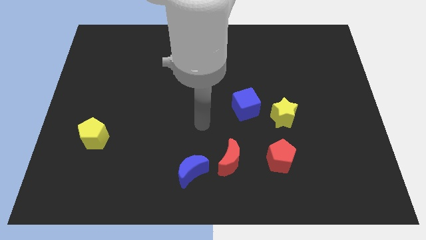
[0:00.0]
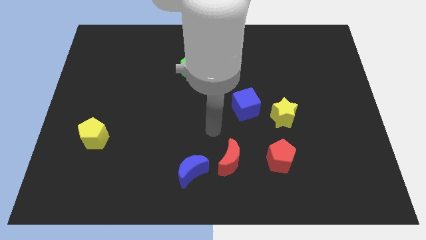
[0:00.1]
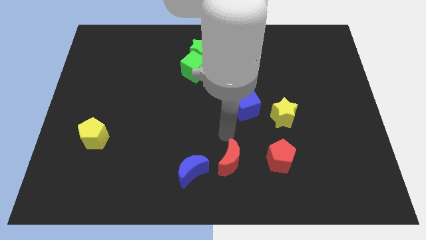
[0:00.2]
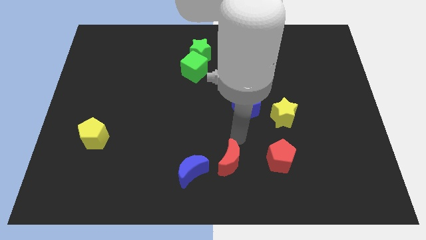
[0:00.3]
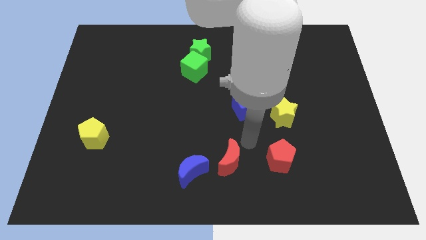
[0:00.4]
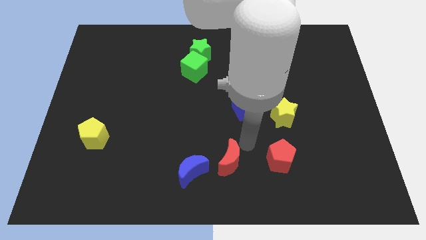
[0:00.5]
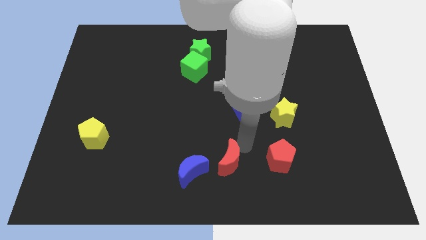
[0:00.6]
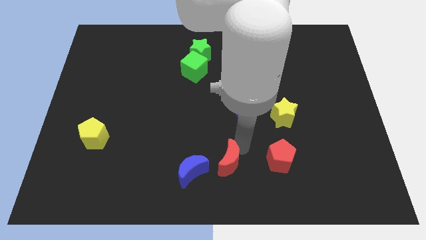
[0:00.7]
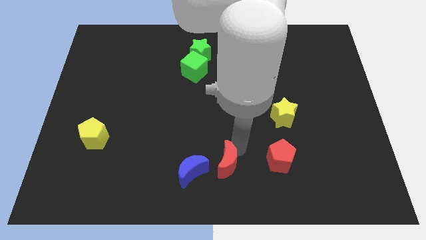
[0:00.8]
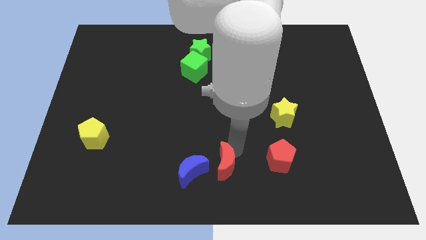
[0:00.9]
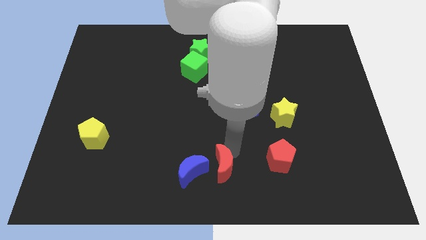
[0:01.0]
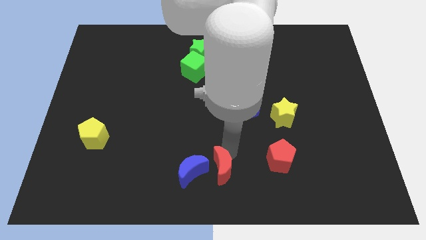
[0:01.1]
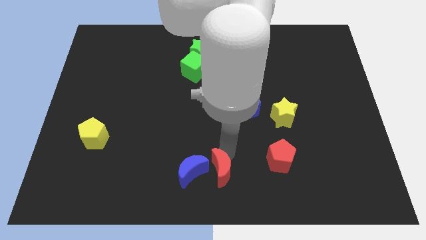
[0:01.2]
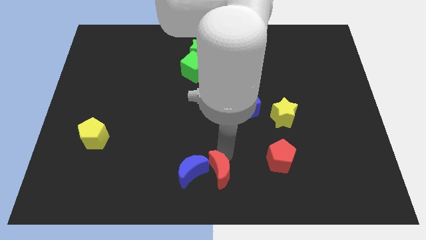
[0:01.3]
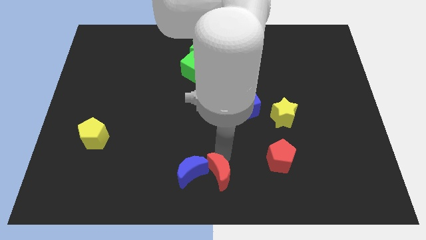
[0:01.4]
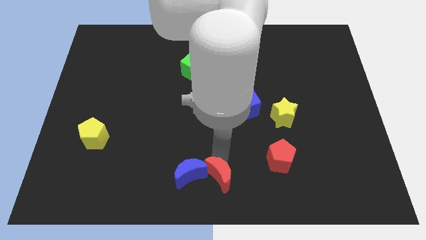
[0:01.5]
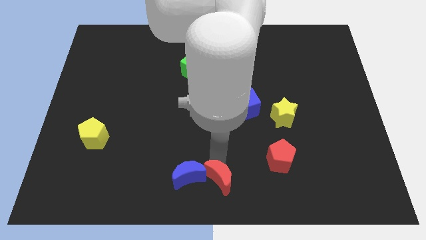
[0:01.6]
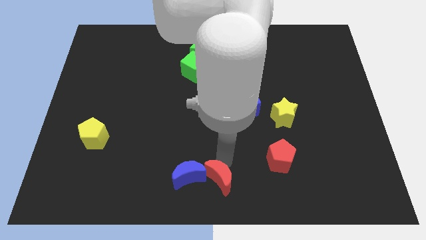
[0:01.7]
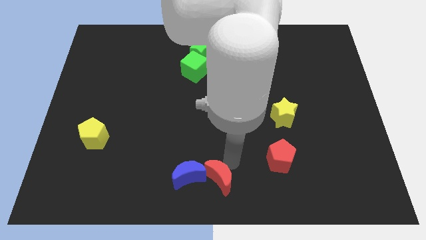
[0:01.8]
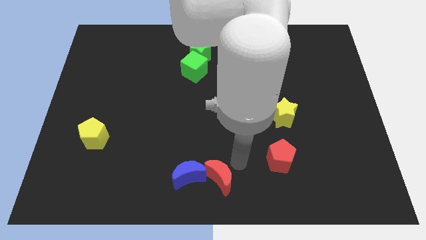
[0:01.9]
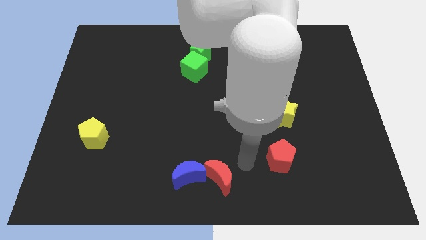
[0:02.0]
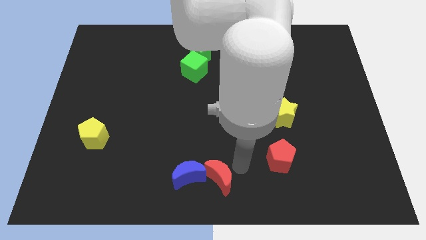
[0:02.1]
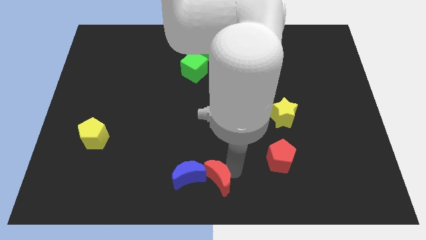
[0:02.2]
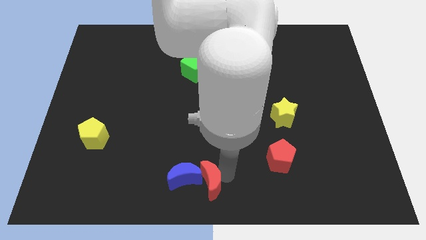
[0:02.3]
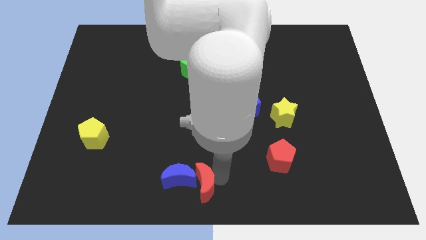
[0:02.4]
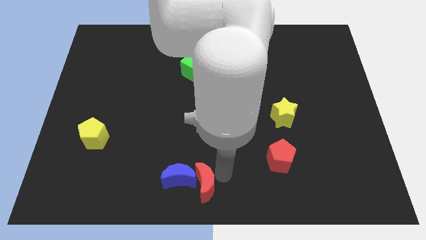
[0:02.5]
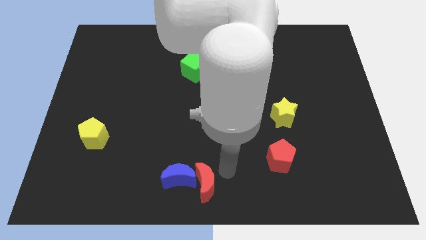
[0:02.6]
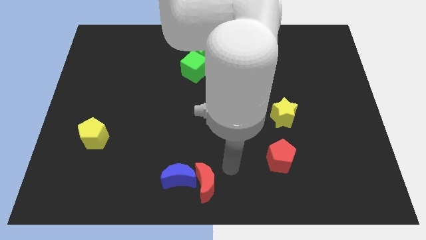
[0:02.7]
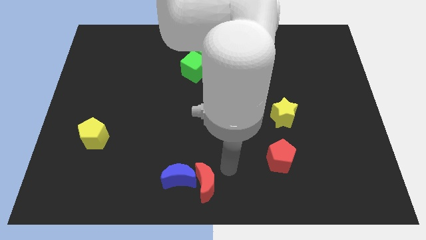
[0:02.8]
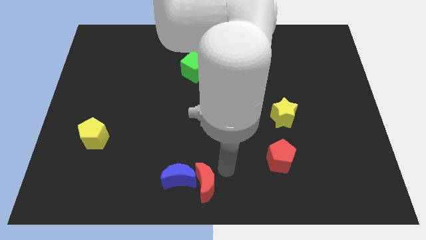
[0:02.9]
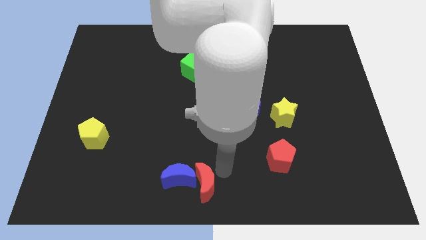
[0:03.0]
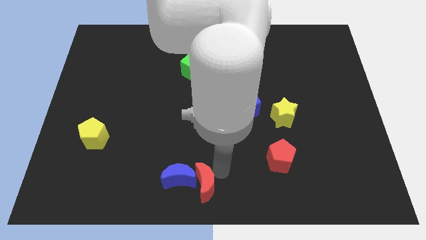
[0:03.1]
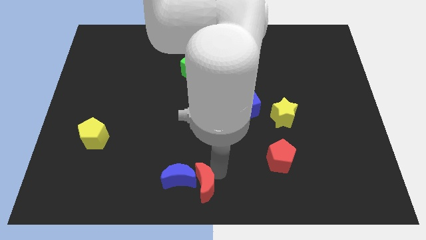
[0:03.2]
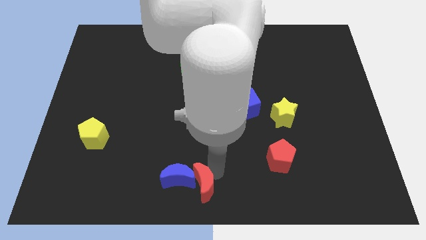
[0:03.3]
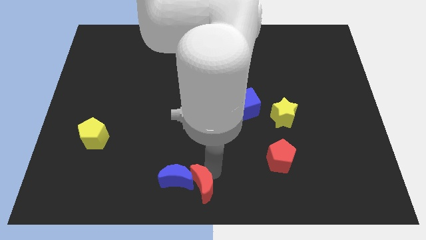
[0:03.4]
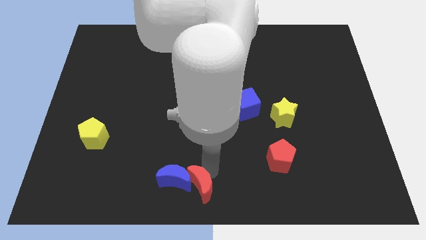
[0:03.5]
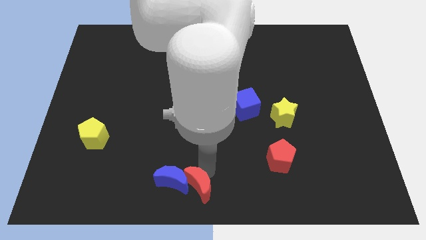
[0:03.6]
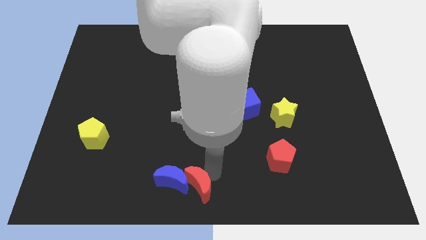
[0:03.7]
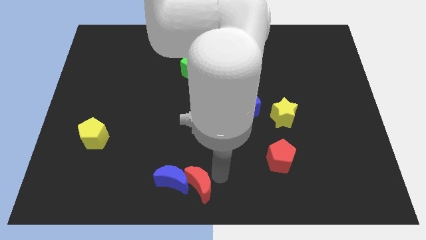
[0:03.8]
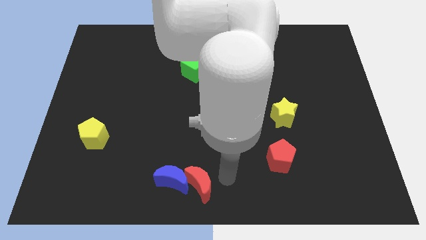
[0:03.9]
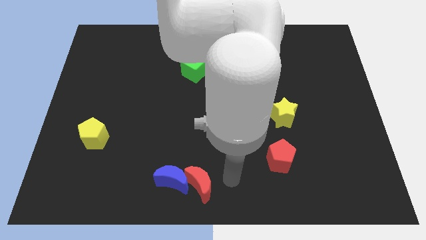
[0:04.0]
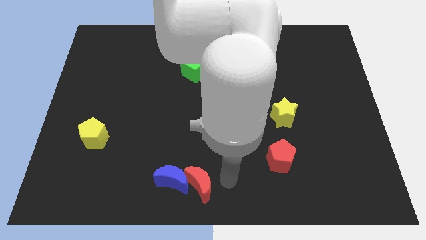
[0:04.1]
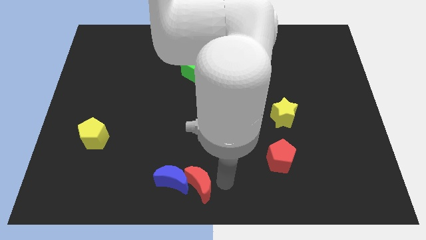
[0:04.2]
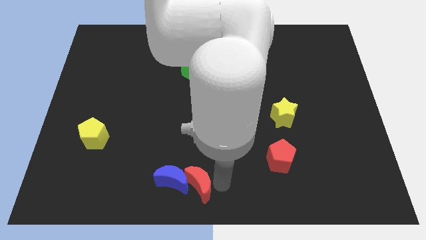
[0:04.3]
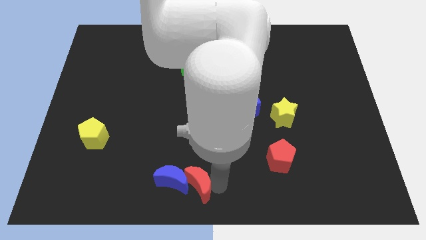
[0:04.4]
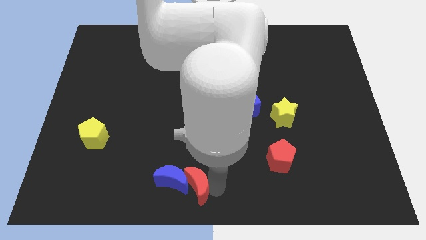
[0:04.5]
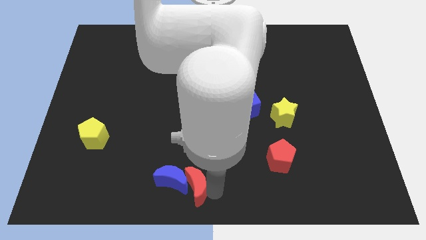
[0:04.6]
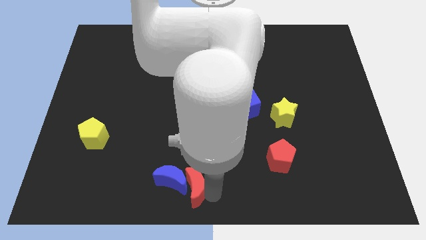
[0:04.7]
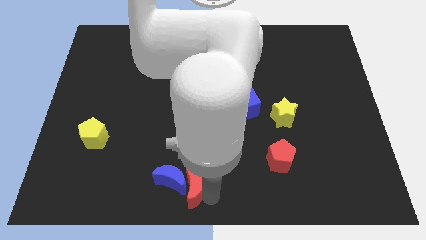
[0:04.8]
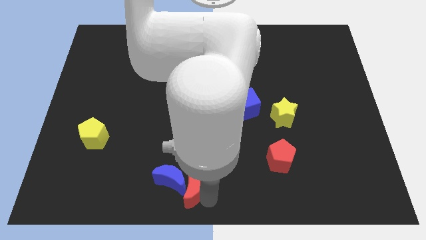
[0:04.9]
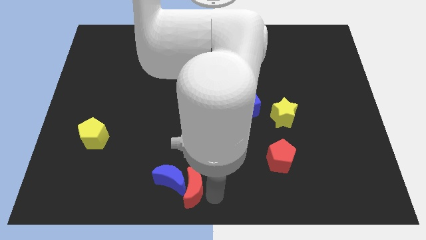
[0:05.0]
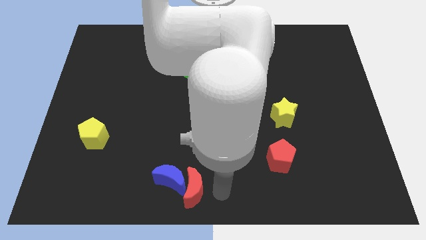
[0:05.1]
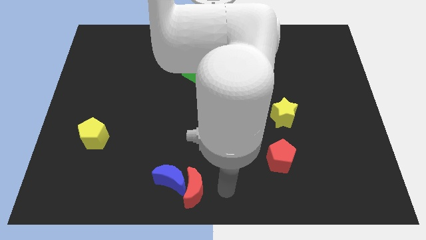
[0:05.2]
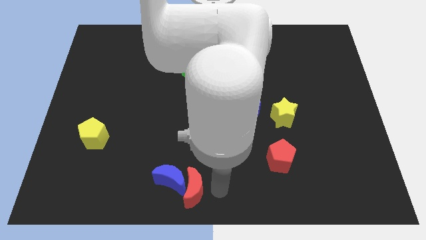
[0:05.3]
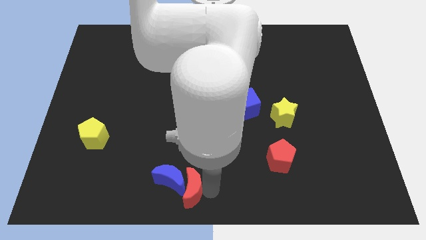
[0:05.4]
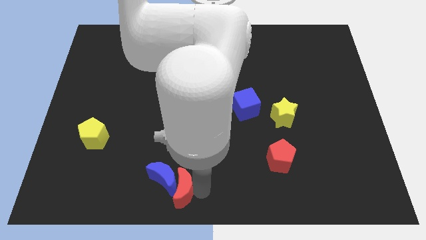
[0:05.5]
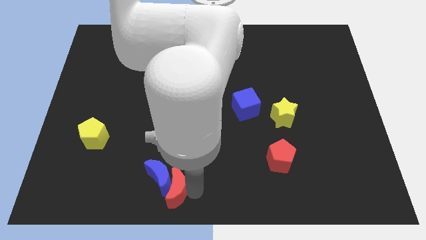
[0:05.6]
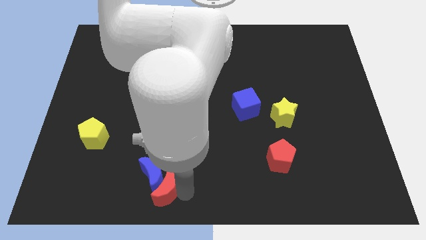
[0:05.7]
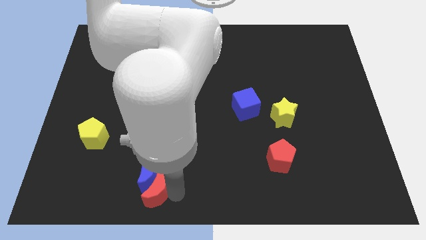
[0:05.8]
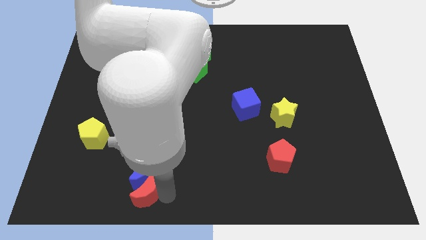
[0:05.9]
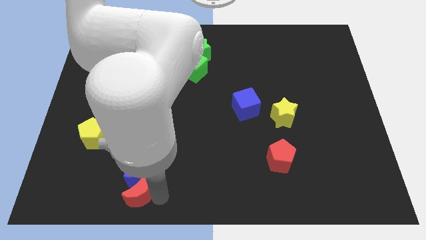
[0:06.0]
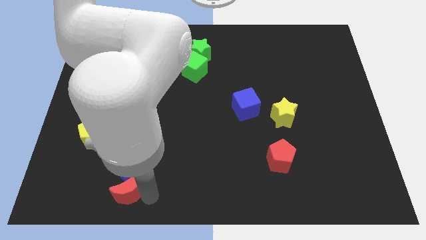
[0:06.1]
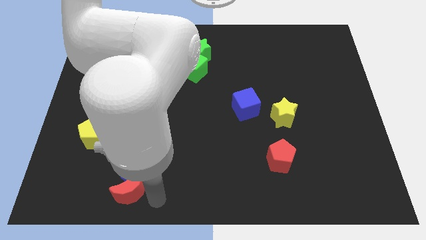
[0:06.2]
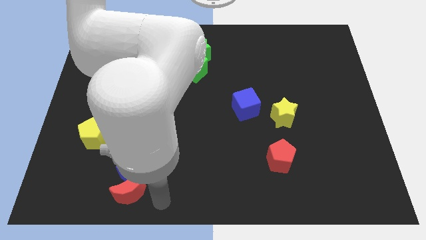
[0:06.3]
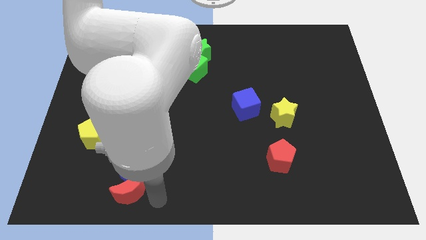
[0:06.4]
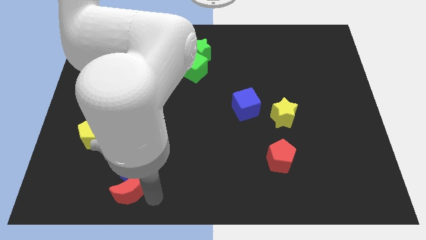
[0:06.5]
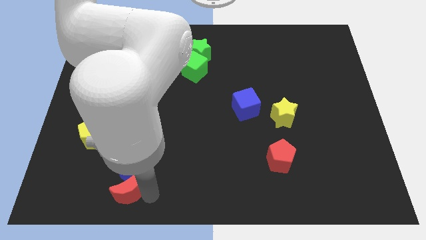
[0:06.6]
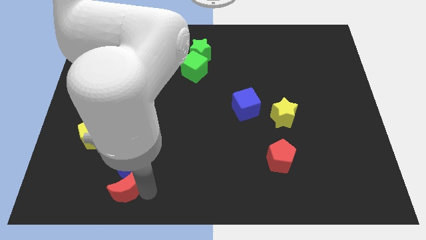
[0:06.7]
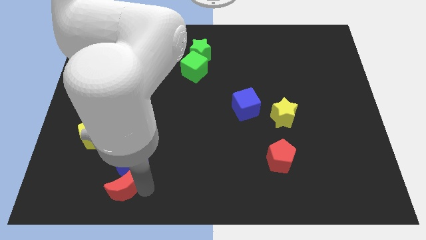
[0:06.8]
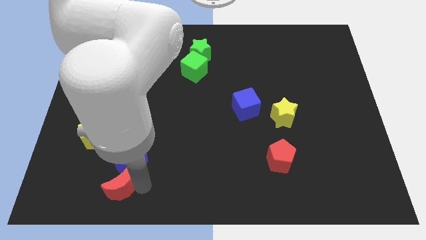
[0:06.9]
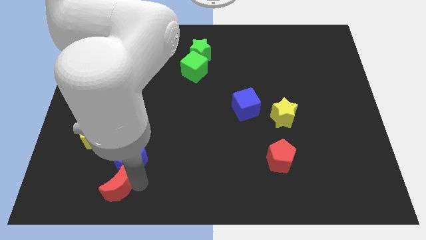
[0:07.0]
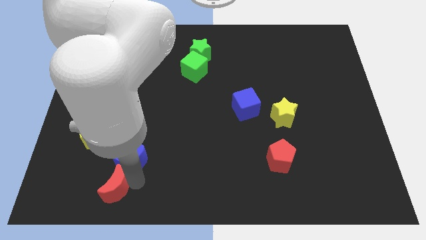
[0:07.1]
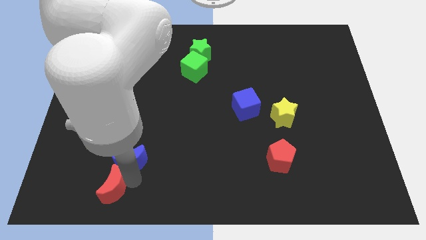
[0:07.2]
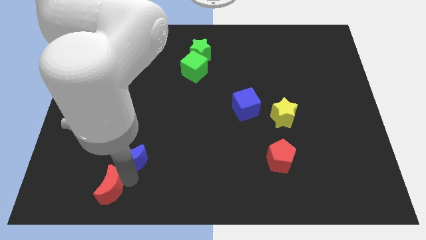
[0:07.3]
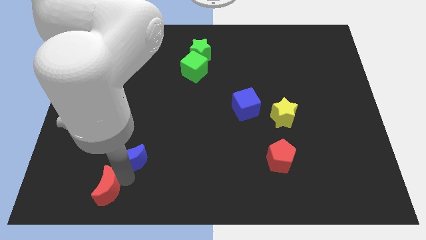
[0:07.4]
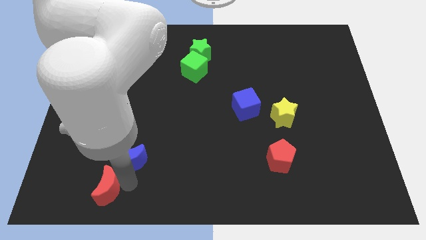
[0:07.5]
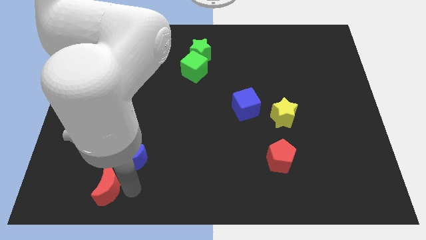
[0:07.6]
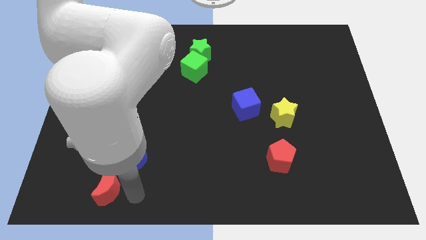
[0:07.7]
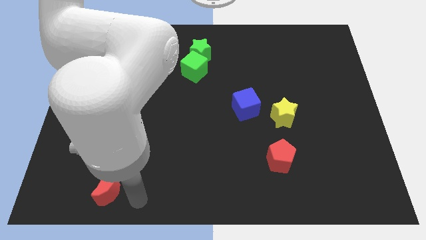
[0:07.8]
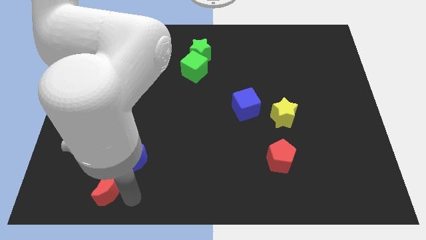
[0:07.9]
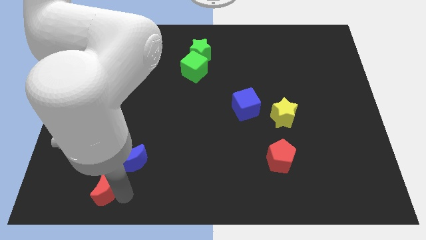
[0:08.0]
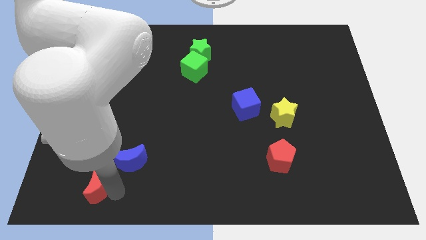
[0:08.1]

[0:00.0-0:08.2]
push the red moon to the bottom side of the yellow pentagon
